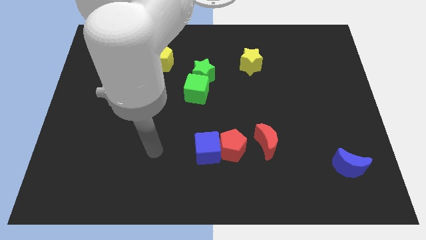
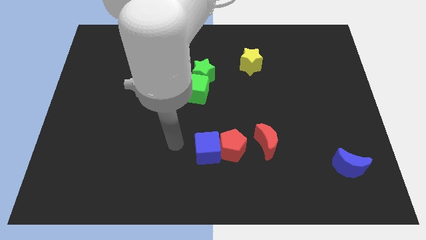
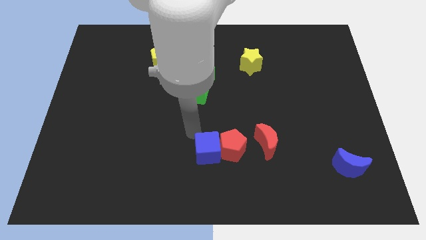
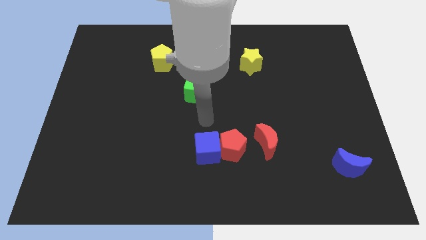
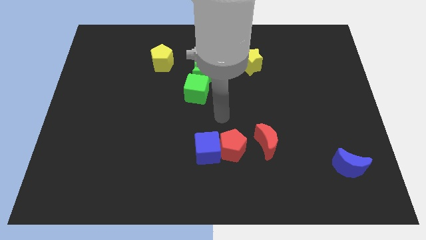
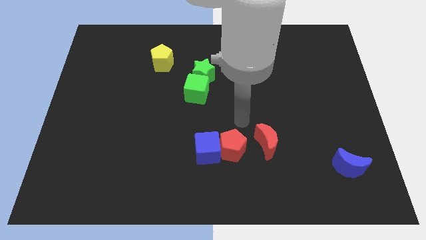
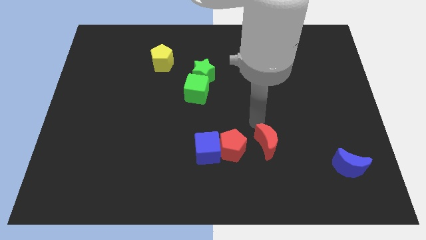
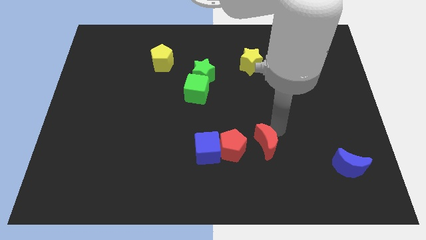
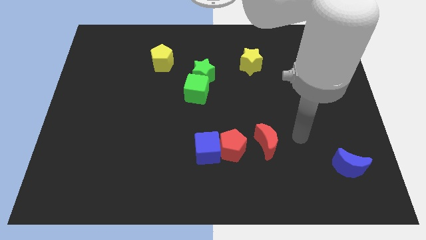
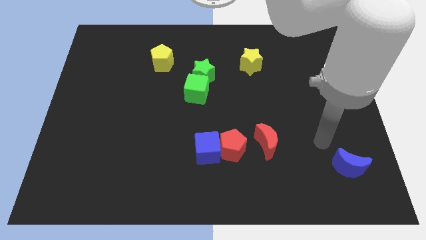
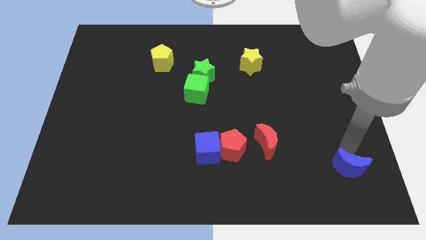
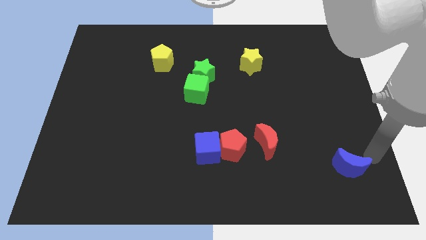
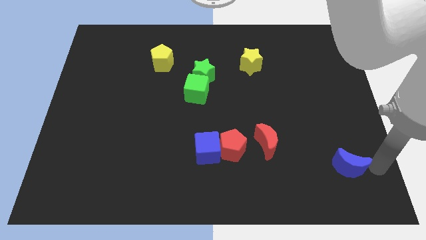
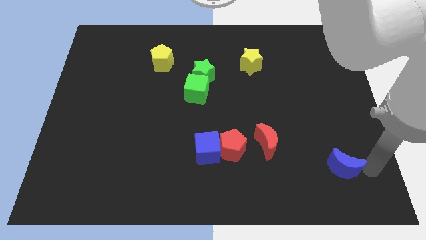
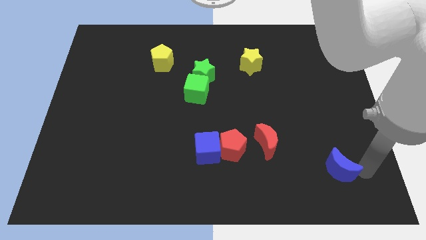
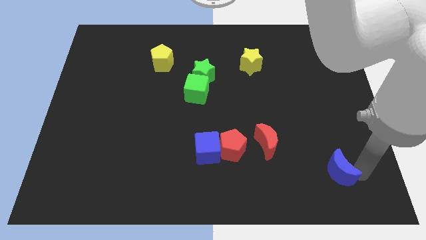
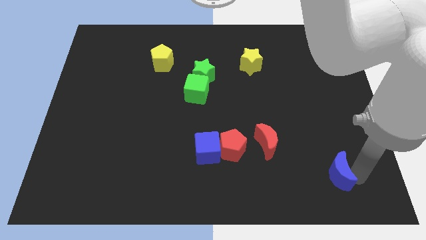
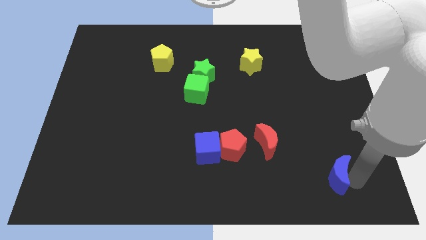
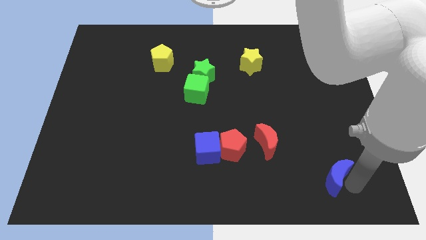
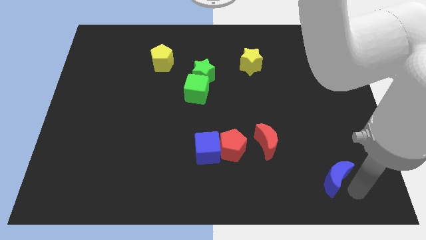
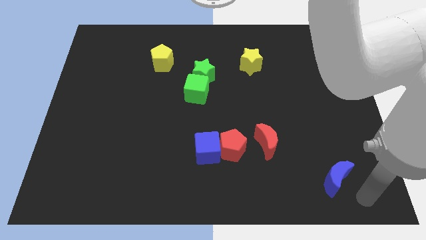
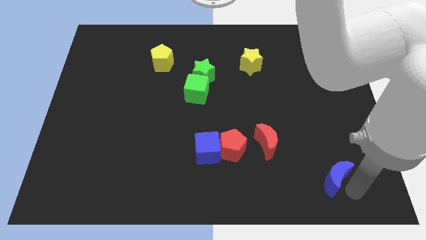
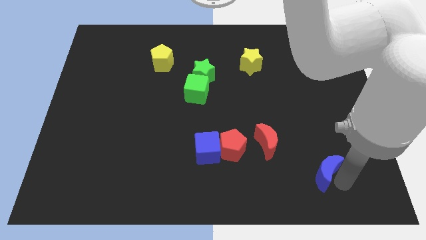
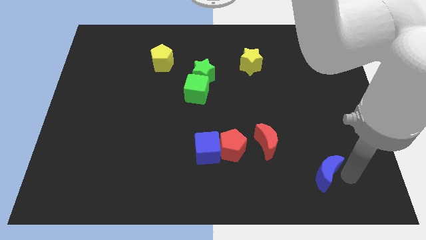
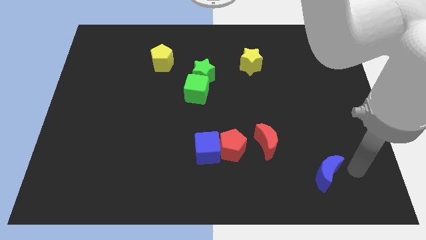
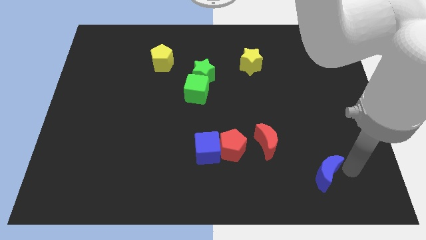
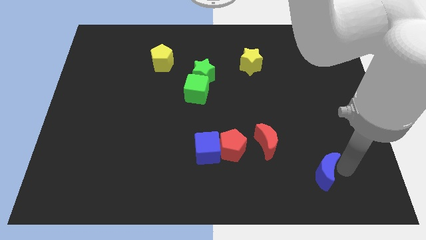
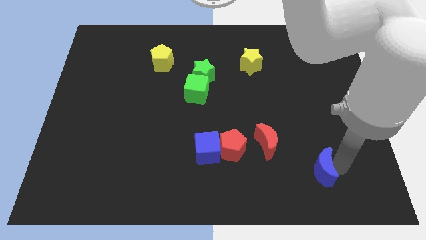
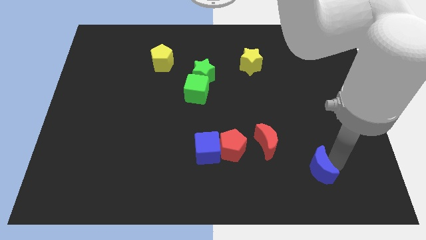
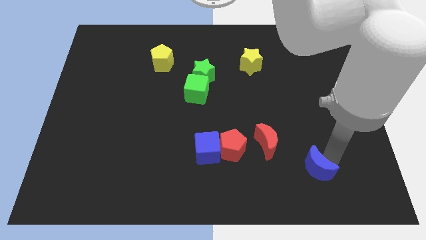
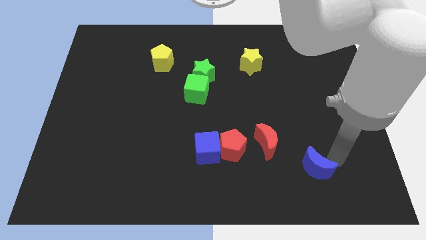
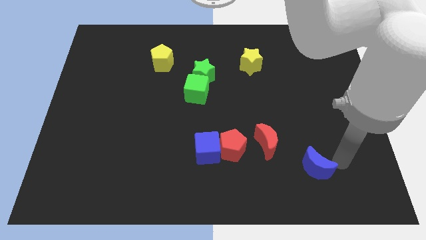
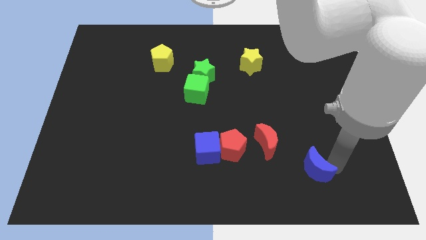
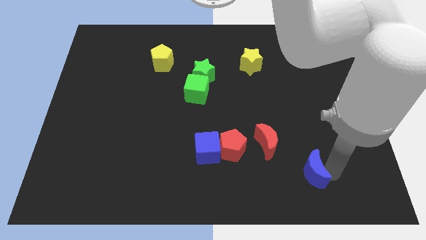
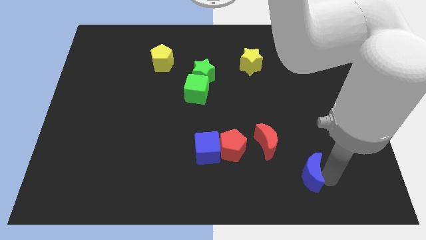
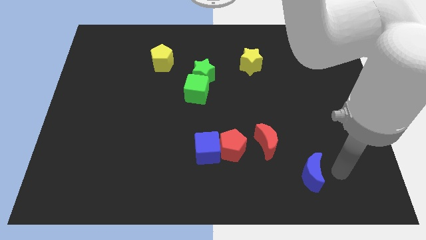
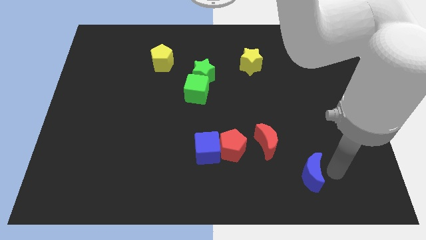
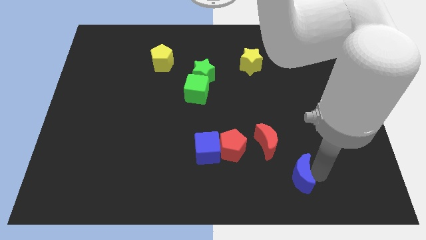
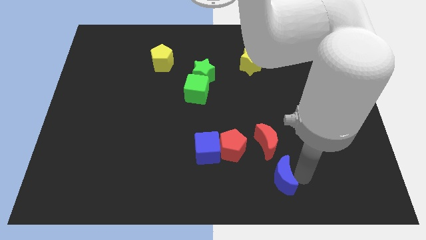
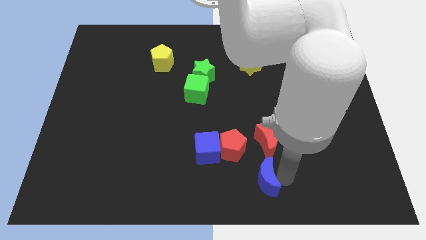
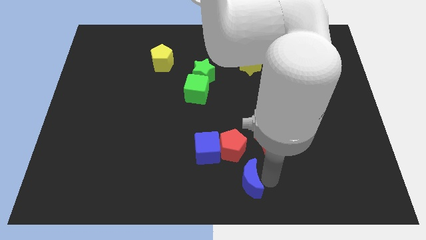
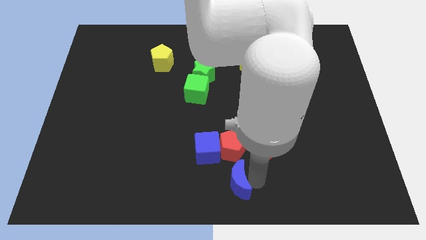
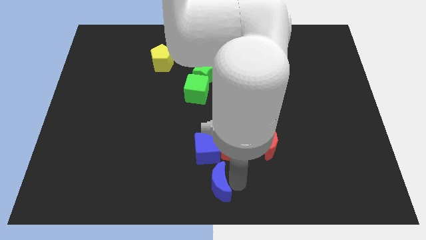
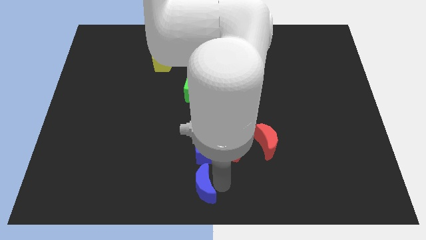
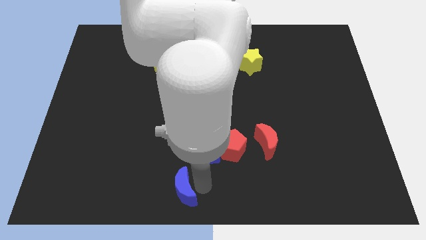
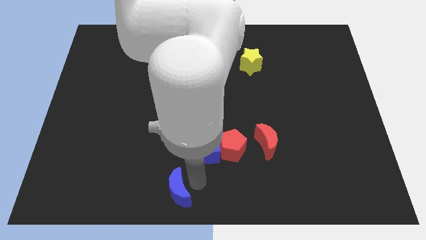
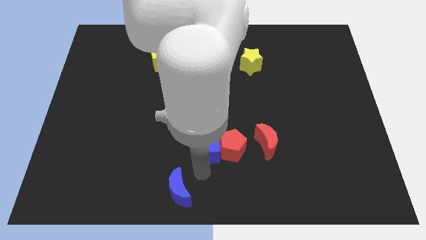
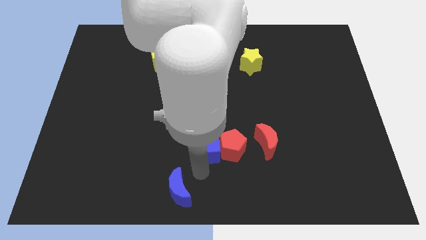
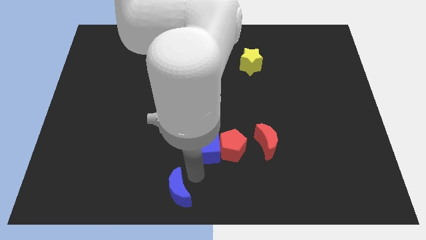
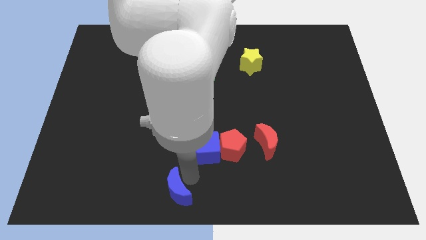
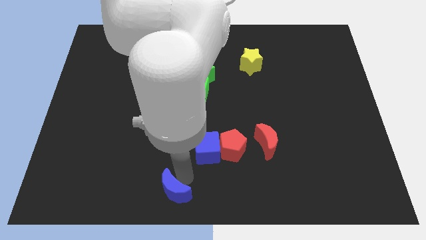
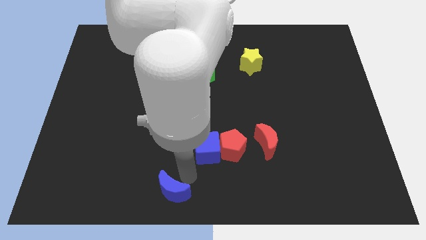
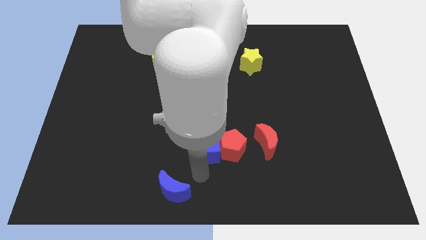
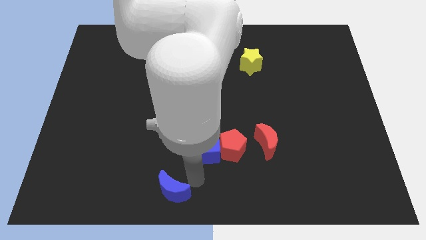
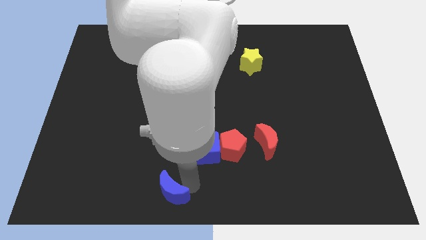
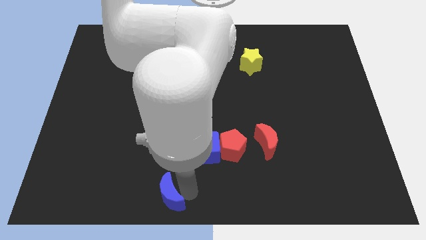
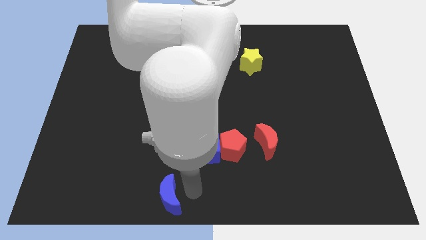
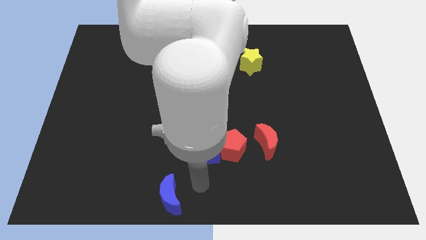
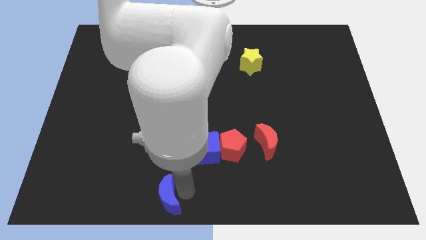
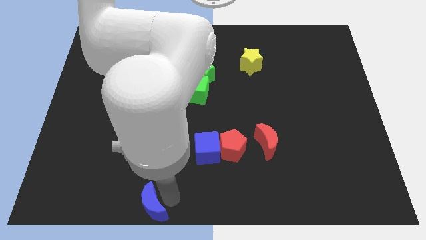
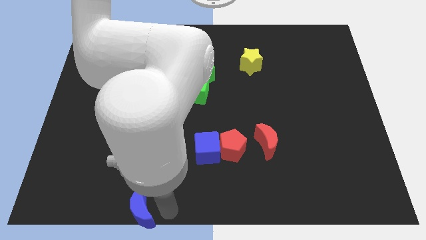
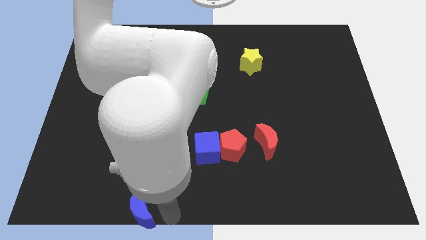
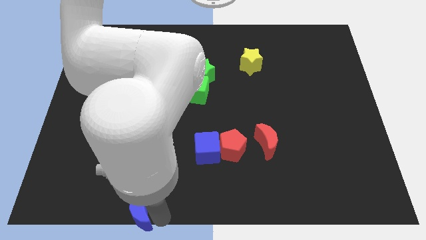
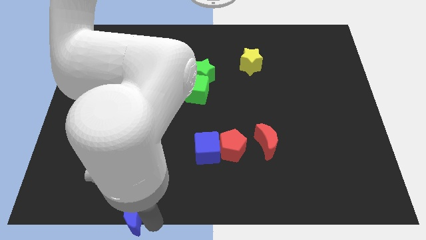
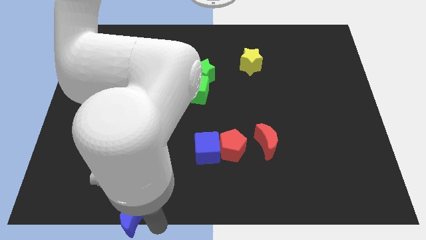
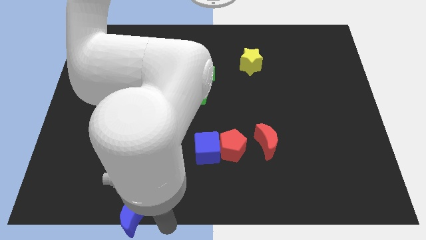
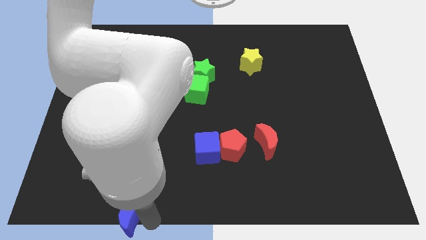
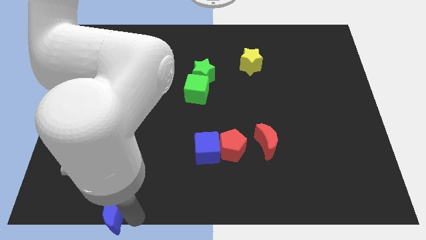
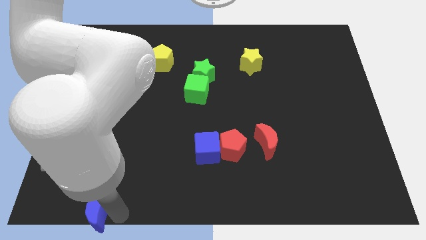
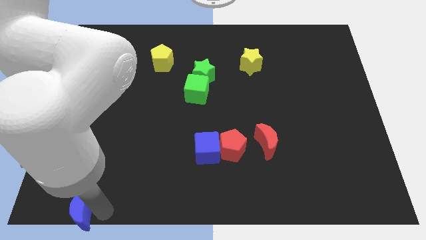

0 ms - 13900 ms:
slide the blue moon to the lower left corner

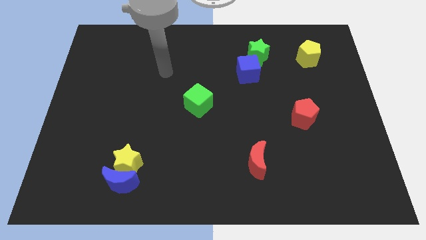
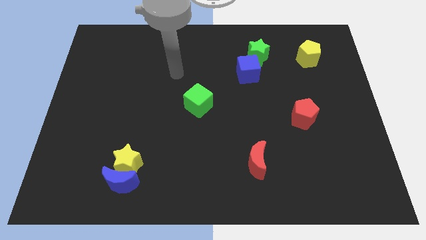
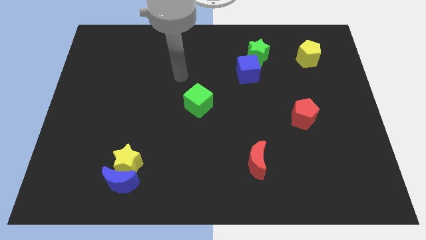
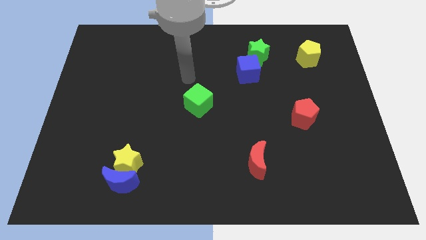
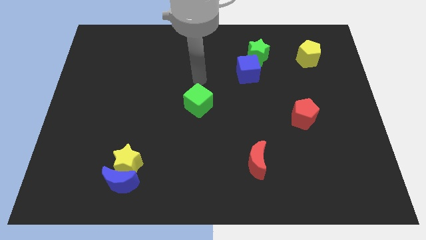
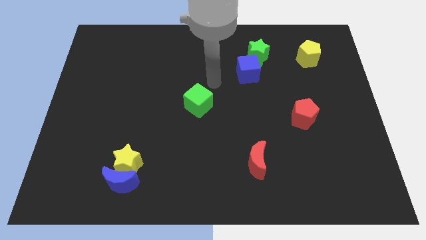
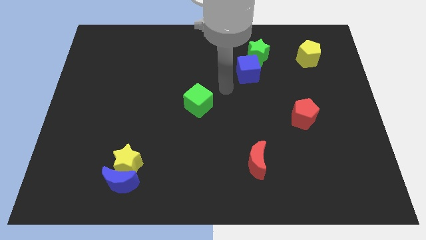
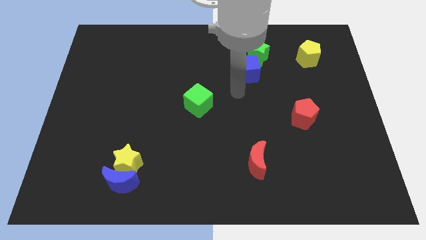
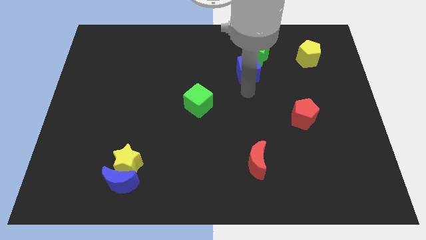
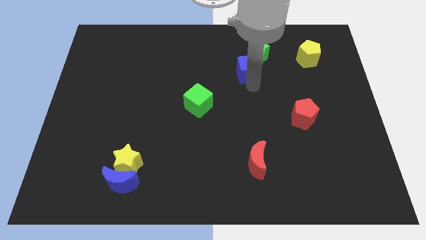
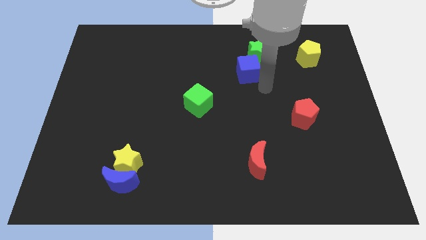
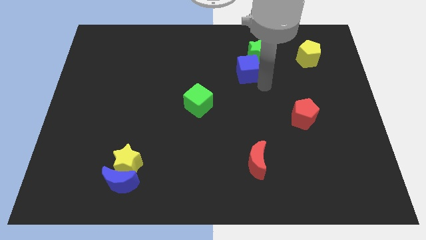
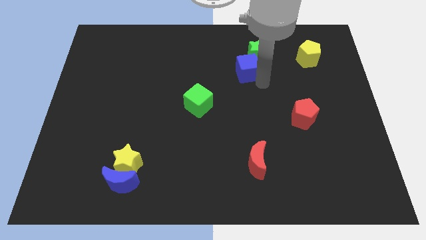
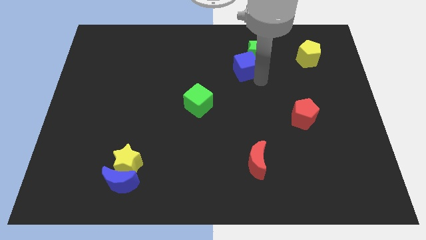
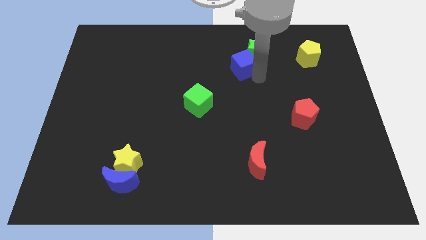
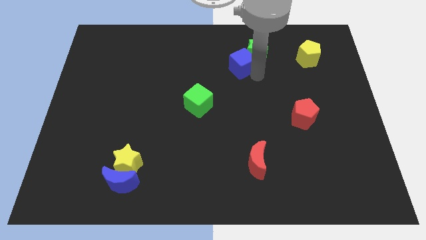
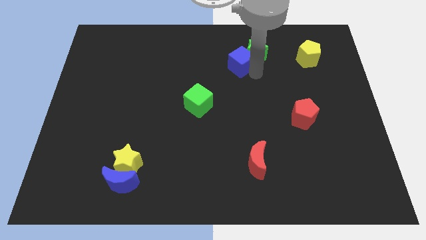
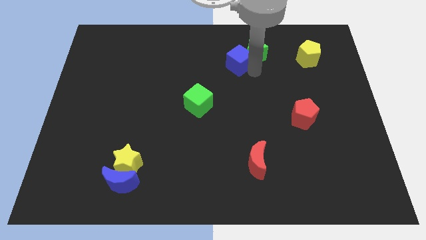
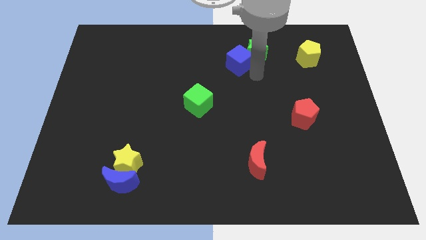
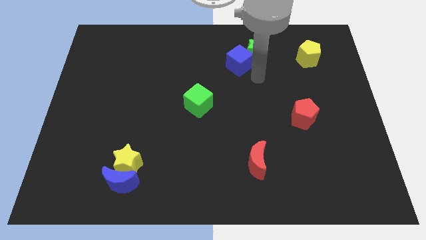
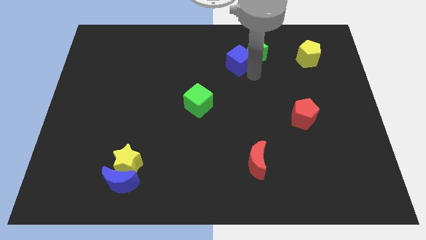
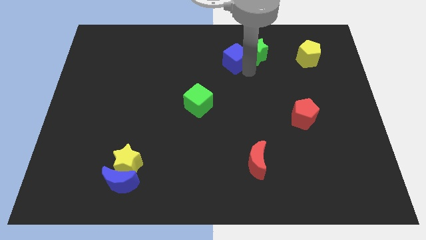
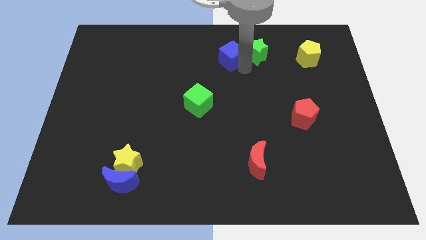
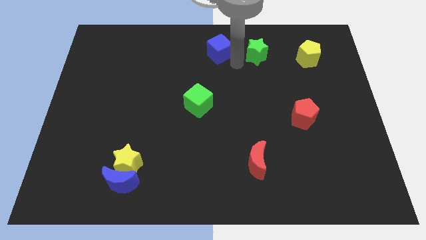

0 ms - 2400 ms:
put the blue cube to the towards your base
